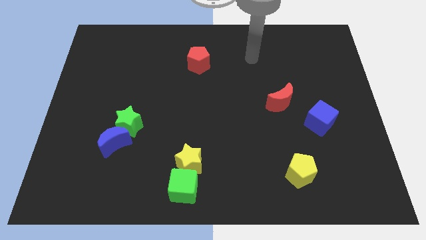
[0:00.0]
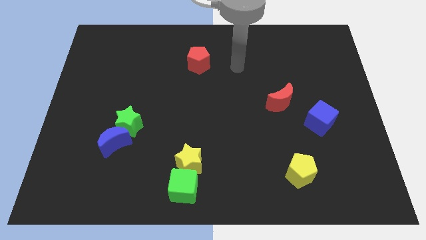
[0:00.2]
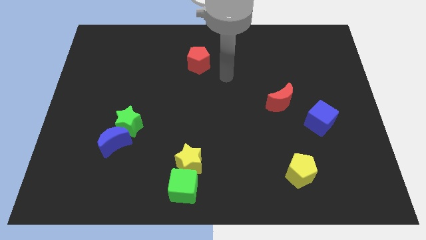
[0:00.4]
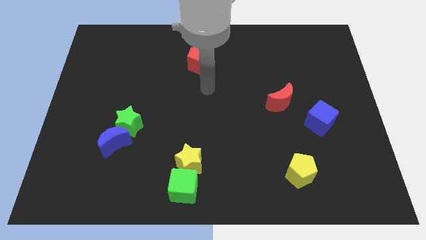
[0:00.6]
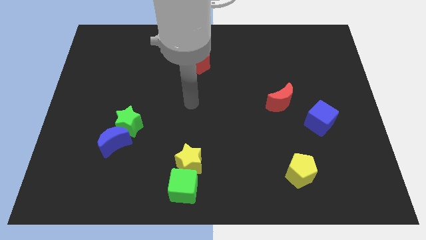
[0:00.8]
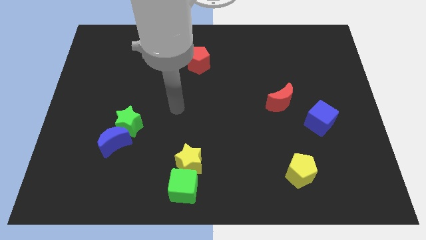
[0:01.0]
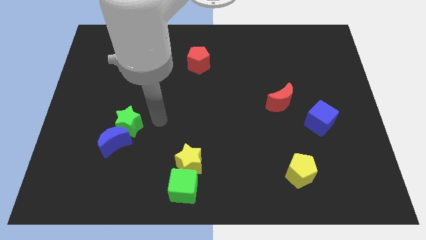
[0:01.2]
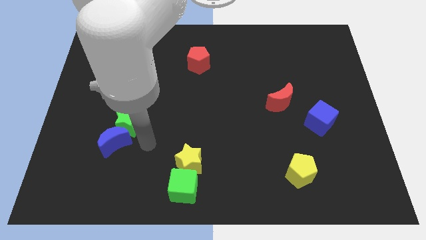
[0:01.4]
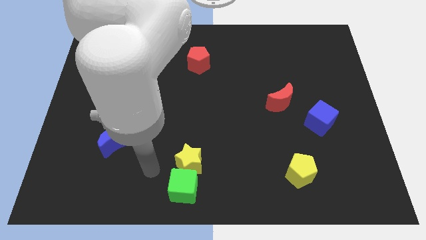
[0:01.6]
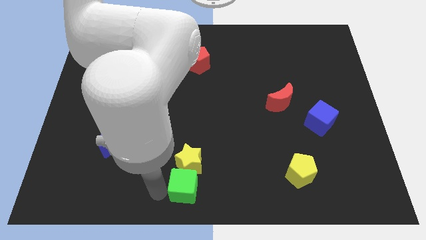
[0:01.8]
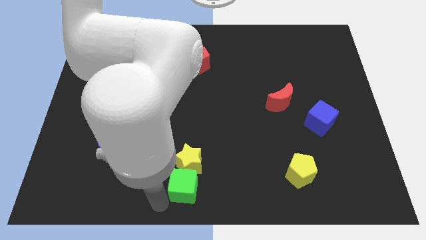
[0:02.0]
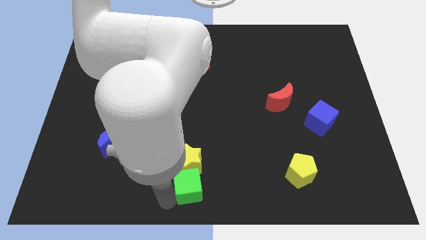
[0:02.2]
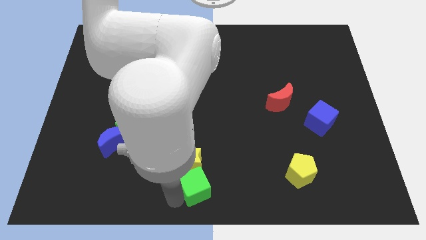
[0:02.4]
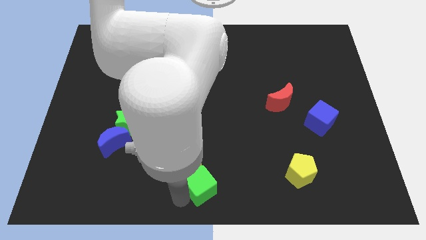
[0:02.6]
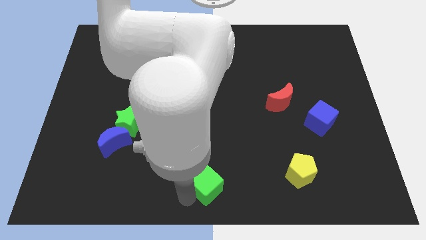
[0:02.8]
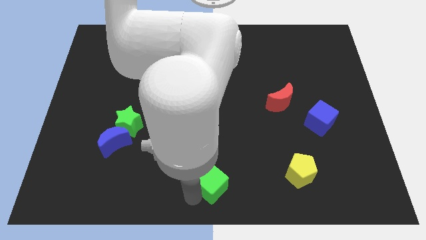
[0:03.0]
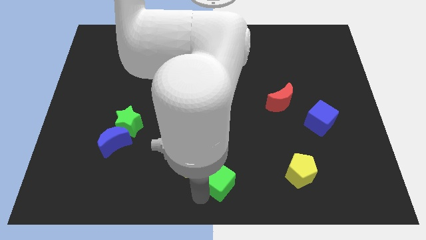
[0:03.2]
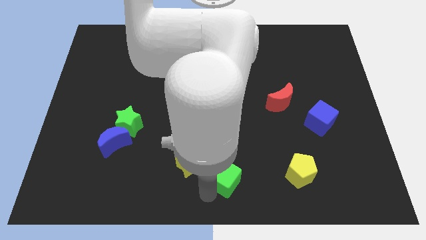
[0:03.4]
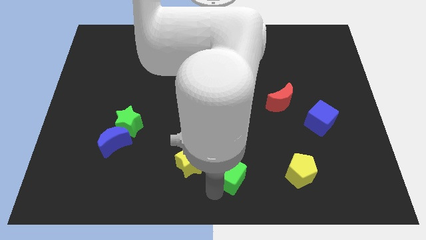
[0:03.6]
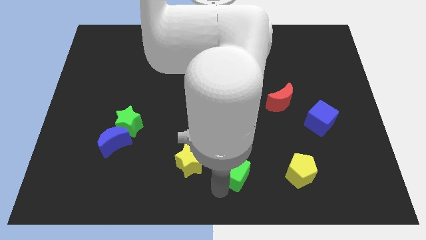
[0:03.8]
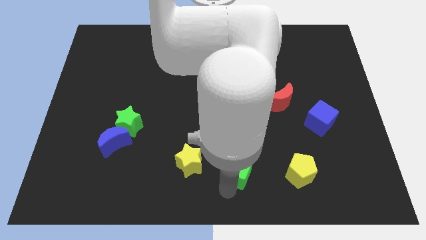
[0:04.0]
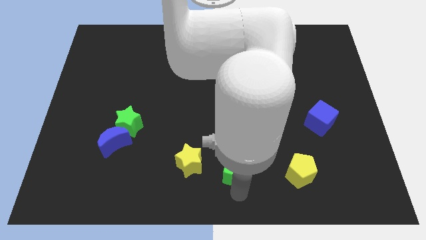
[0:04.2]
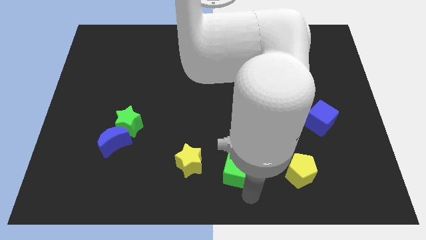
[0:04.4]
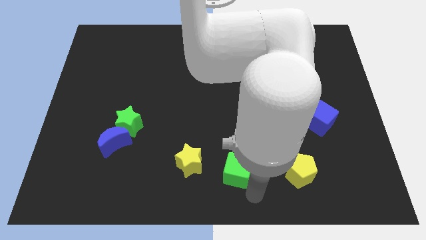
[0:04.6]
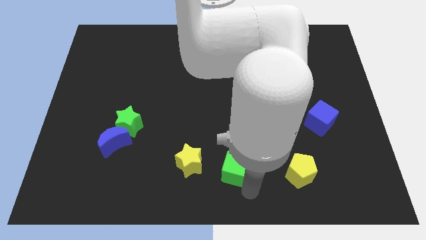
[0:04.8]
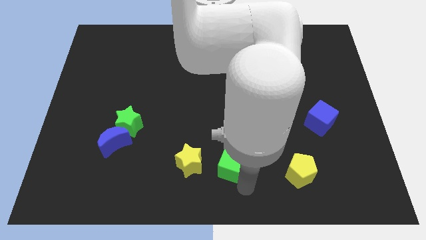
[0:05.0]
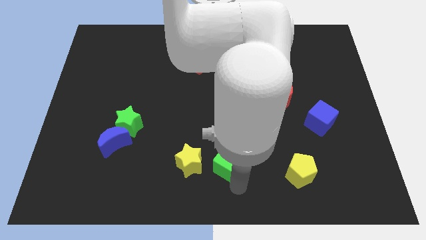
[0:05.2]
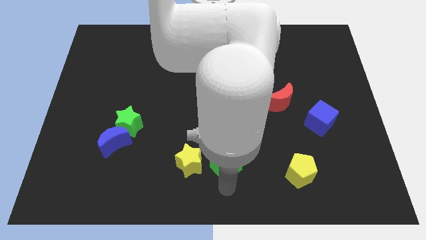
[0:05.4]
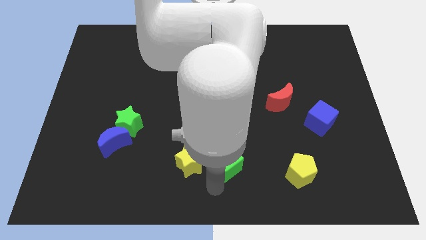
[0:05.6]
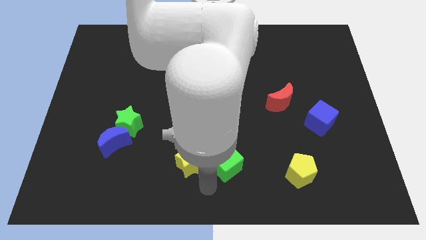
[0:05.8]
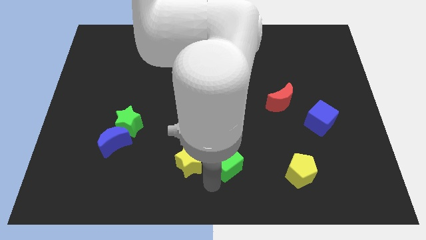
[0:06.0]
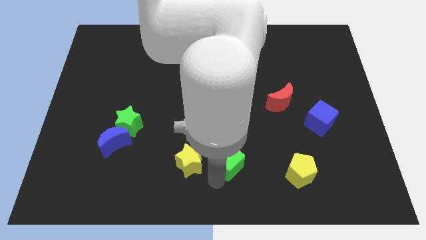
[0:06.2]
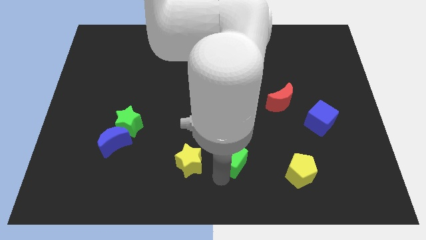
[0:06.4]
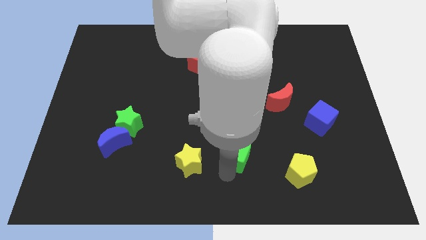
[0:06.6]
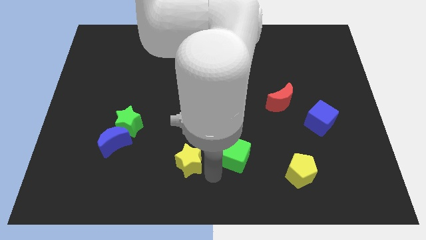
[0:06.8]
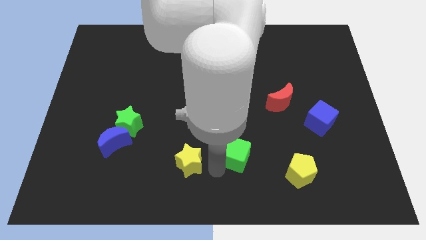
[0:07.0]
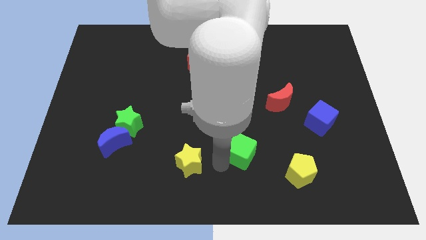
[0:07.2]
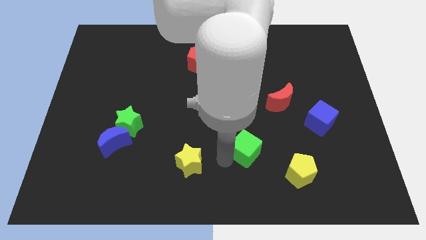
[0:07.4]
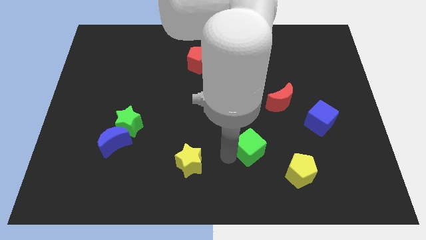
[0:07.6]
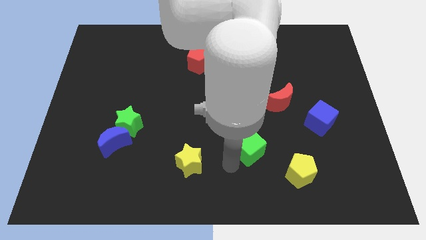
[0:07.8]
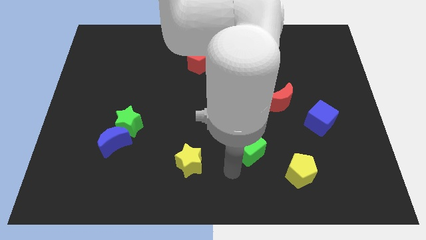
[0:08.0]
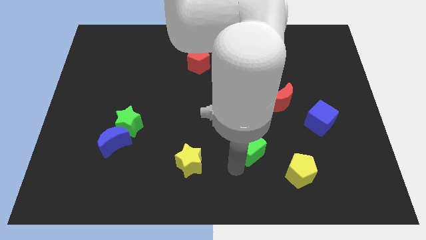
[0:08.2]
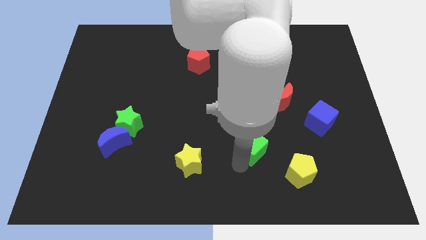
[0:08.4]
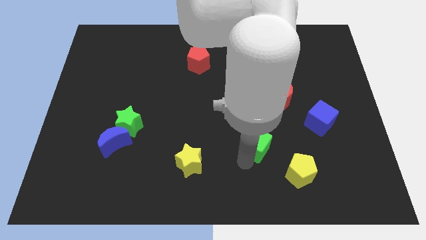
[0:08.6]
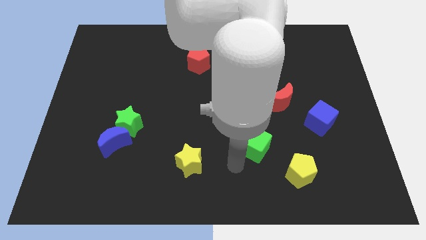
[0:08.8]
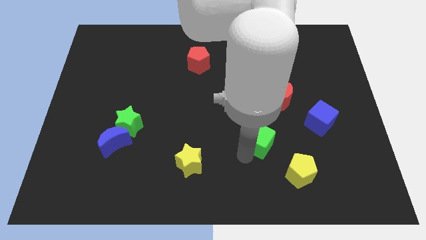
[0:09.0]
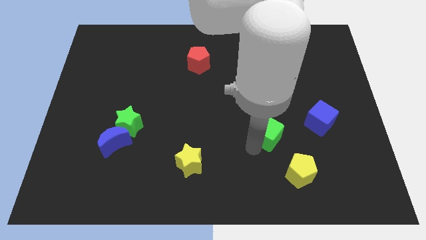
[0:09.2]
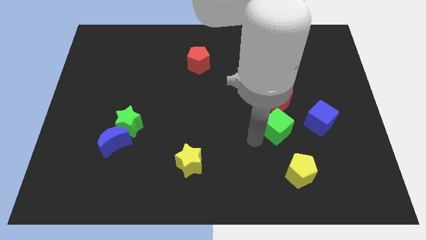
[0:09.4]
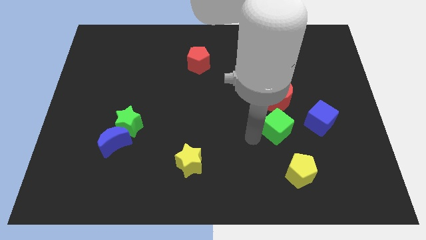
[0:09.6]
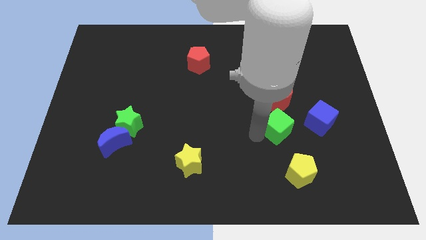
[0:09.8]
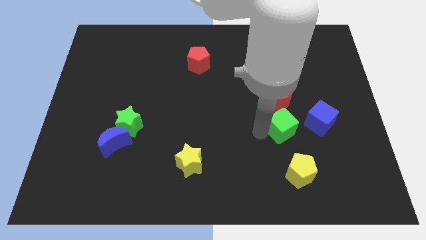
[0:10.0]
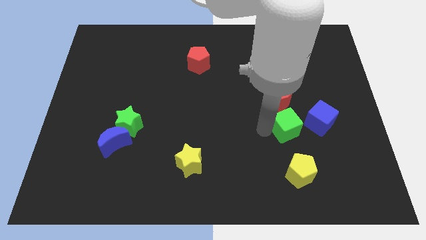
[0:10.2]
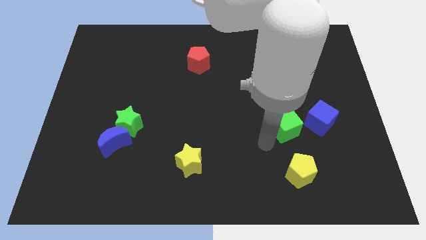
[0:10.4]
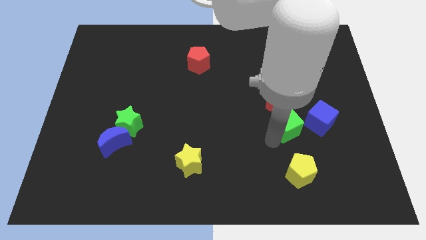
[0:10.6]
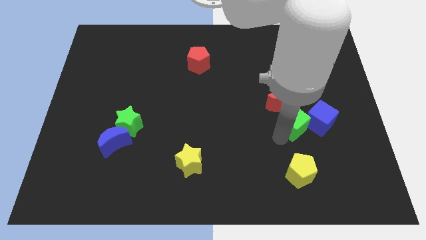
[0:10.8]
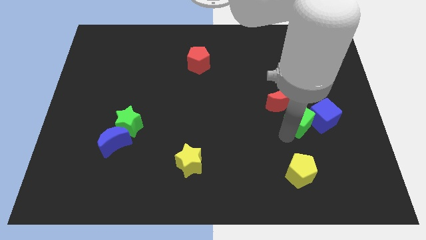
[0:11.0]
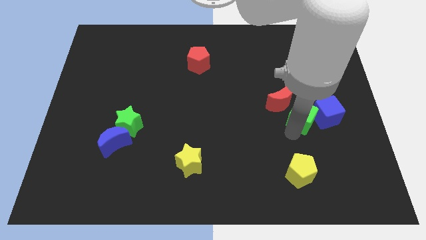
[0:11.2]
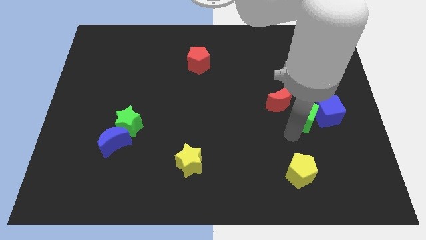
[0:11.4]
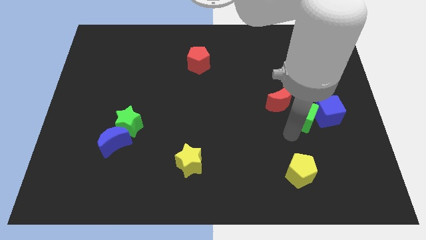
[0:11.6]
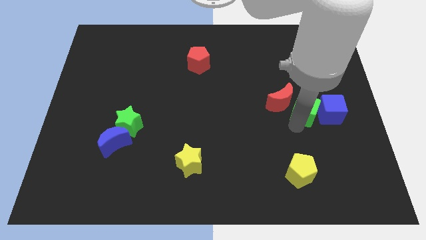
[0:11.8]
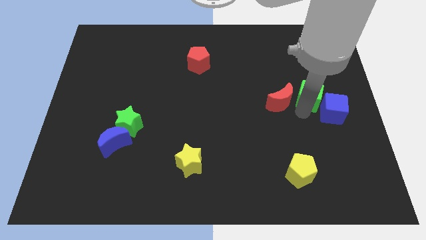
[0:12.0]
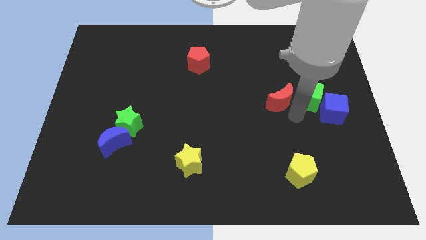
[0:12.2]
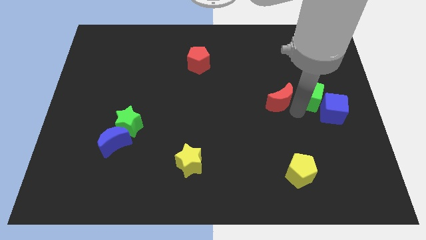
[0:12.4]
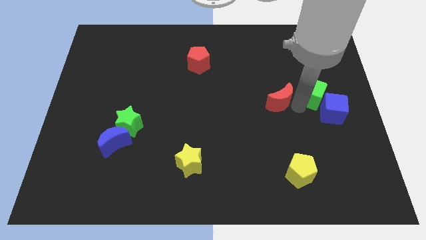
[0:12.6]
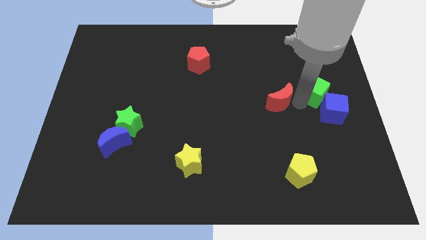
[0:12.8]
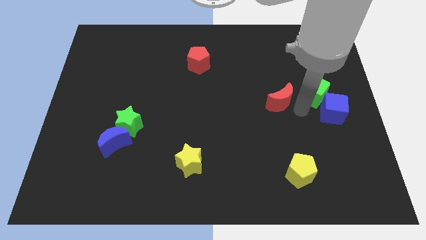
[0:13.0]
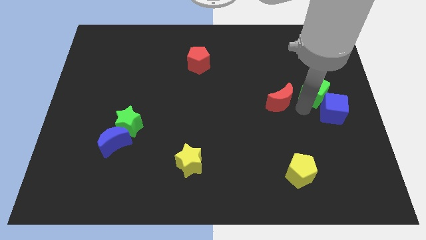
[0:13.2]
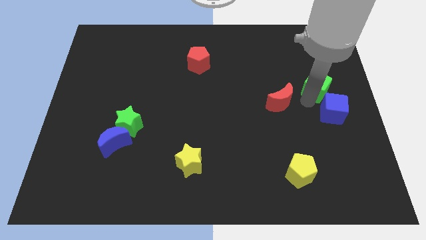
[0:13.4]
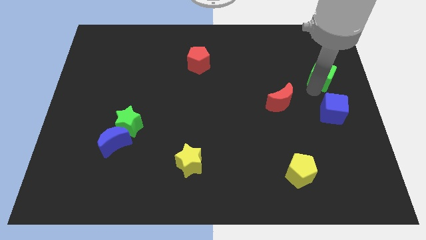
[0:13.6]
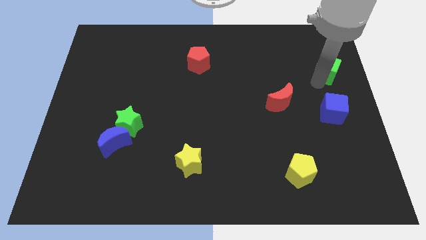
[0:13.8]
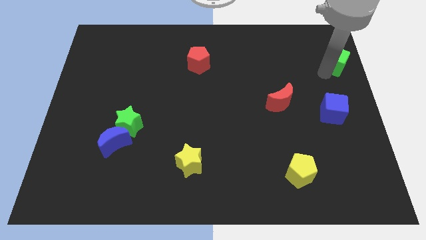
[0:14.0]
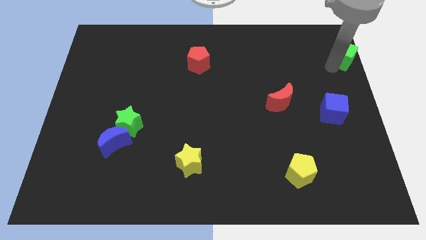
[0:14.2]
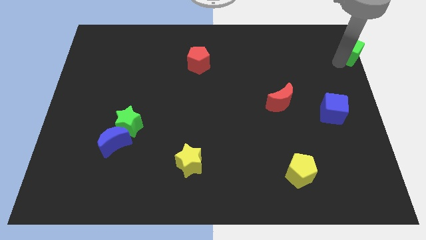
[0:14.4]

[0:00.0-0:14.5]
put the green cube to the top right
